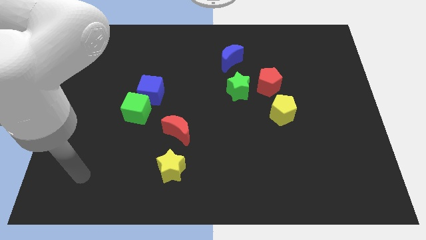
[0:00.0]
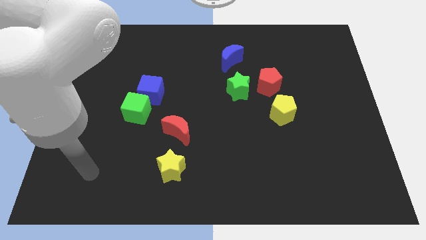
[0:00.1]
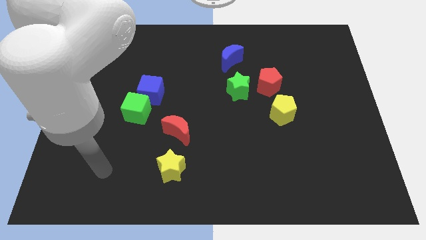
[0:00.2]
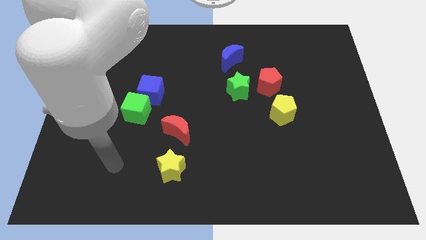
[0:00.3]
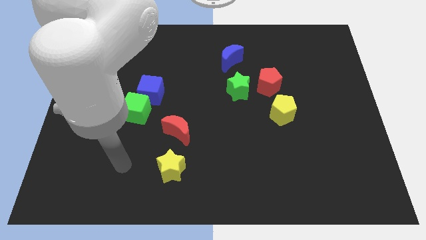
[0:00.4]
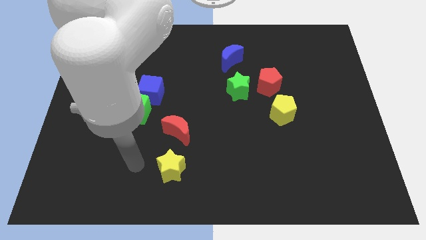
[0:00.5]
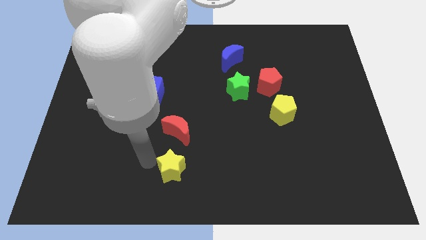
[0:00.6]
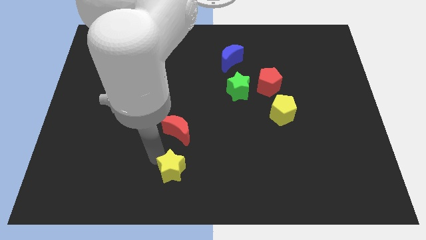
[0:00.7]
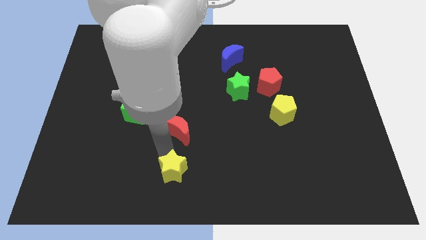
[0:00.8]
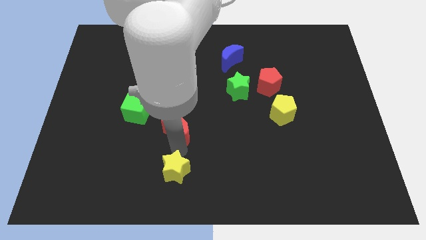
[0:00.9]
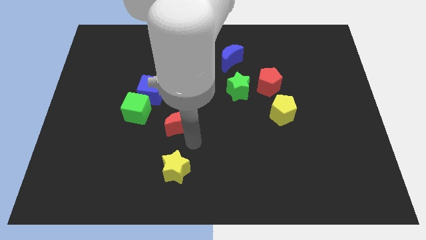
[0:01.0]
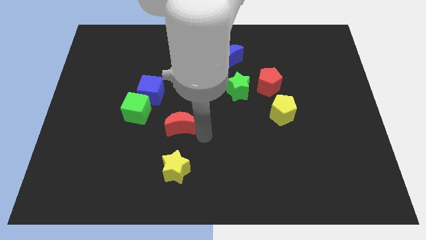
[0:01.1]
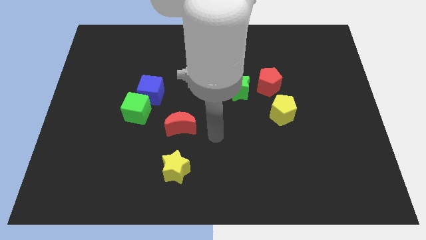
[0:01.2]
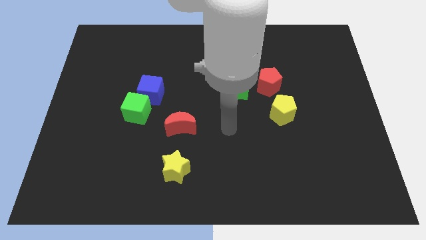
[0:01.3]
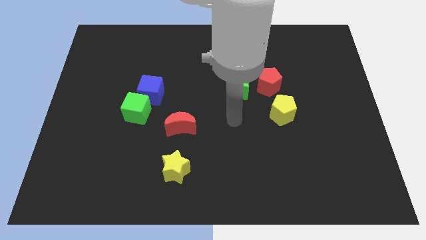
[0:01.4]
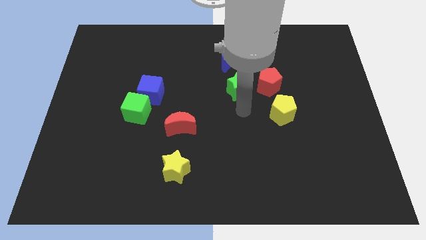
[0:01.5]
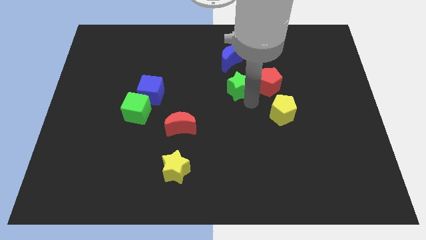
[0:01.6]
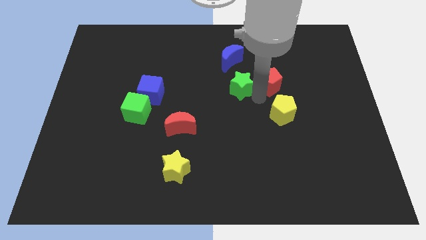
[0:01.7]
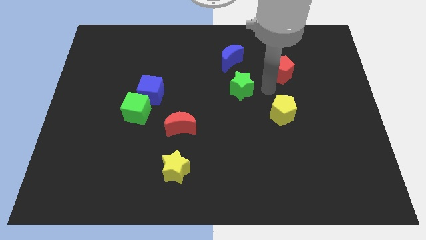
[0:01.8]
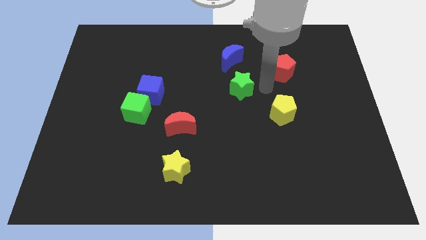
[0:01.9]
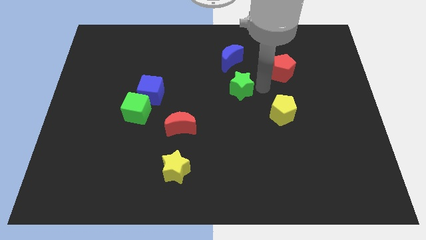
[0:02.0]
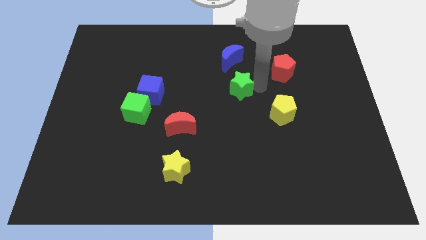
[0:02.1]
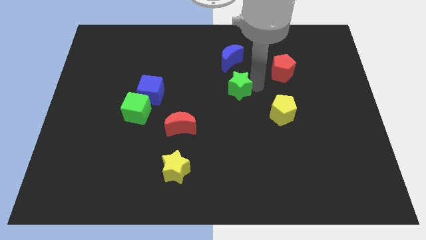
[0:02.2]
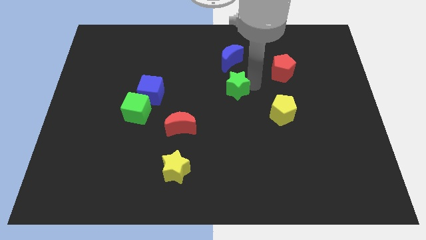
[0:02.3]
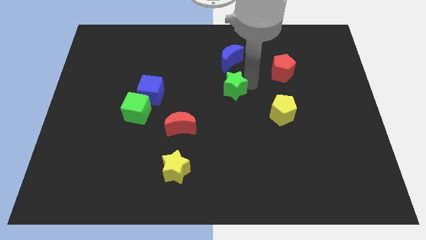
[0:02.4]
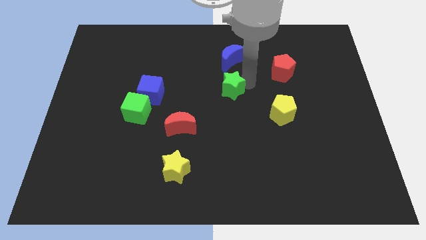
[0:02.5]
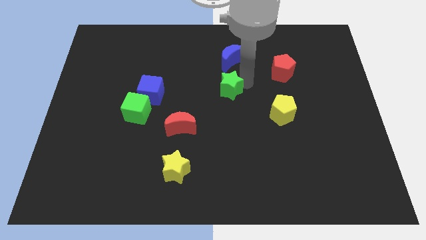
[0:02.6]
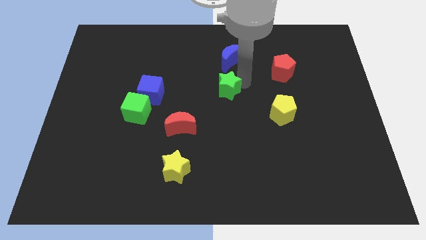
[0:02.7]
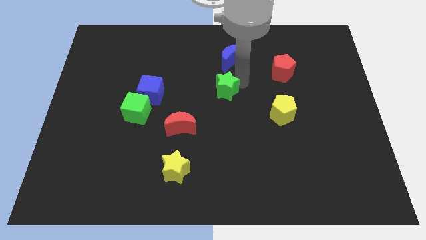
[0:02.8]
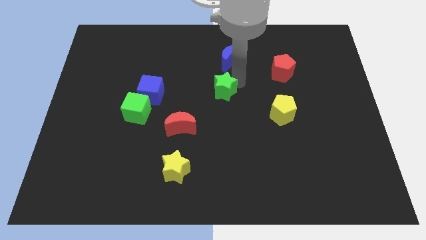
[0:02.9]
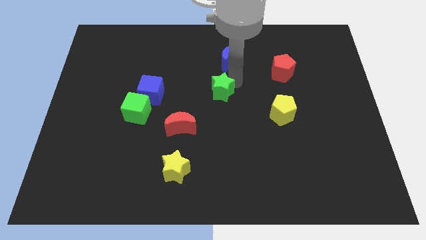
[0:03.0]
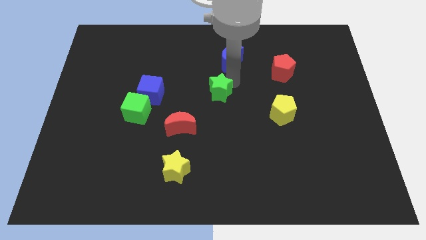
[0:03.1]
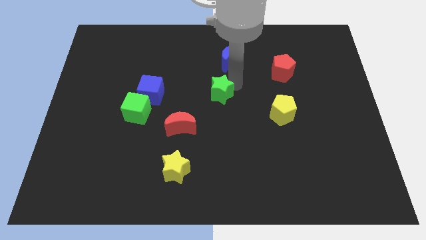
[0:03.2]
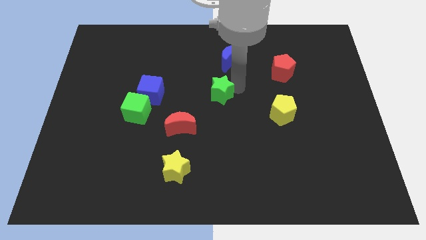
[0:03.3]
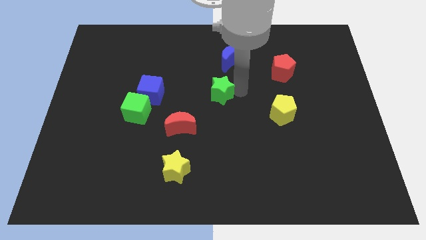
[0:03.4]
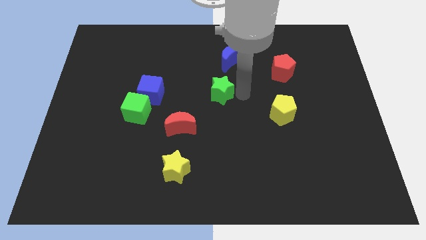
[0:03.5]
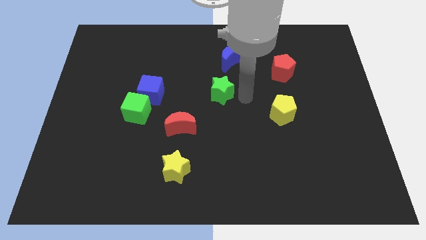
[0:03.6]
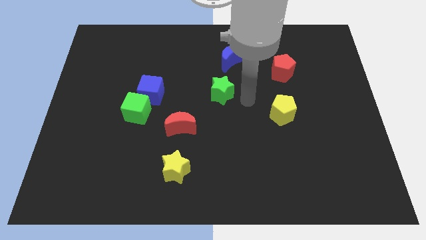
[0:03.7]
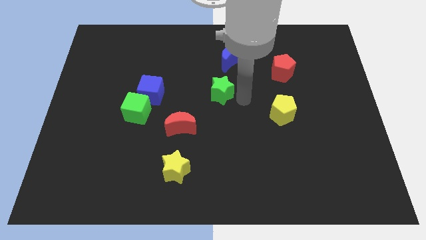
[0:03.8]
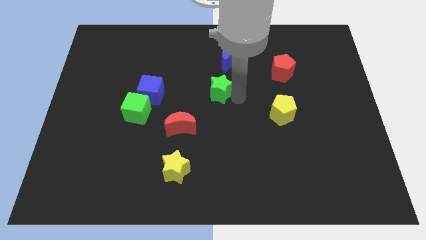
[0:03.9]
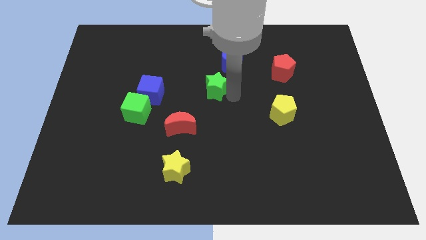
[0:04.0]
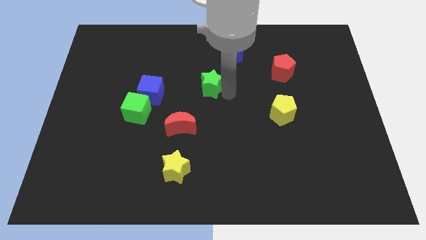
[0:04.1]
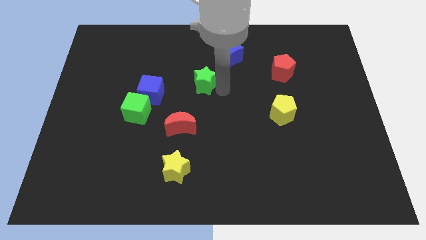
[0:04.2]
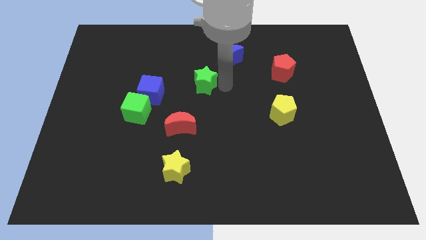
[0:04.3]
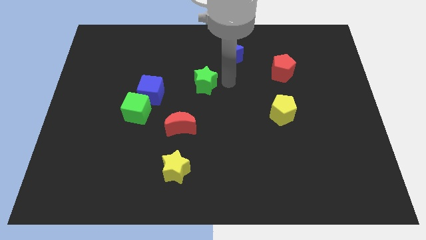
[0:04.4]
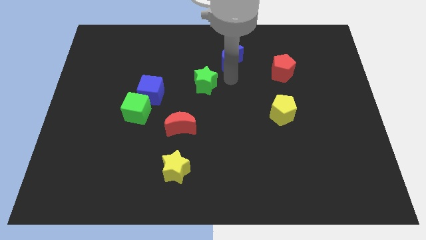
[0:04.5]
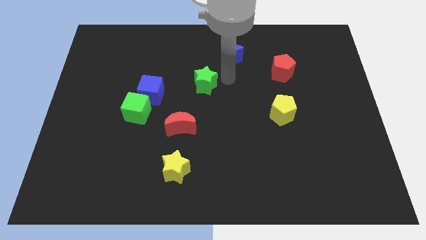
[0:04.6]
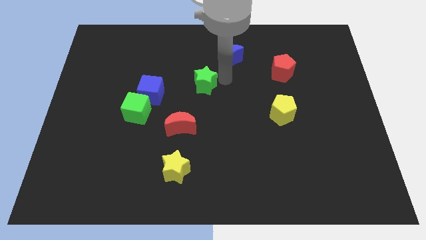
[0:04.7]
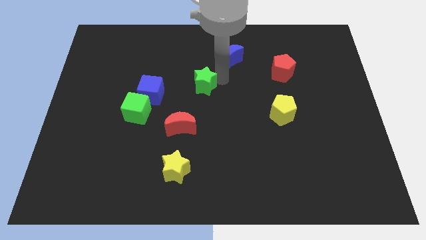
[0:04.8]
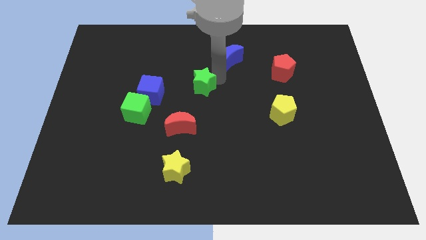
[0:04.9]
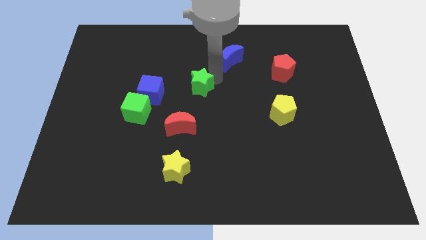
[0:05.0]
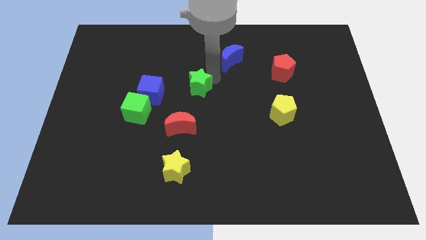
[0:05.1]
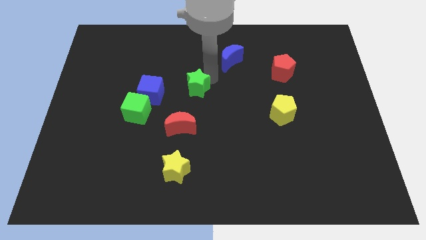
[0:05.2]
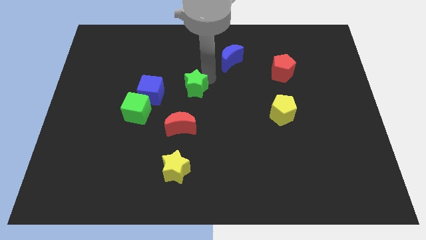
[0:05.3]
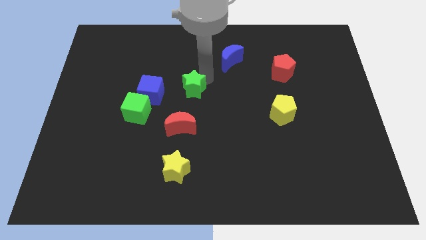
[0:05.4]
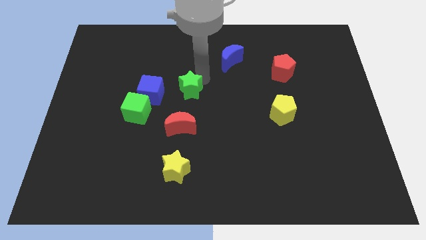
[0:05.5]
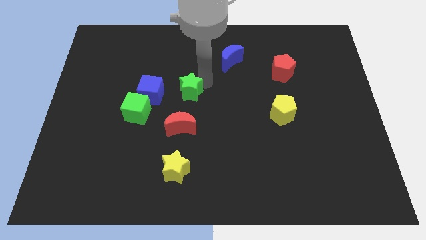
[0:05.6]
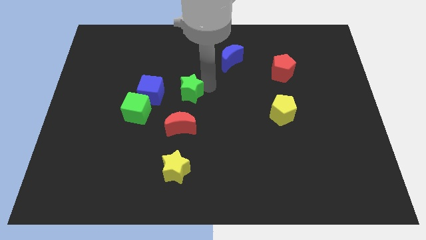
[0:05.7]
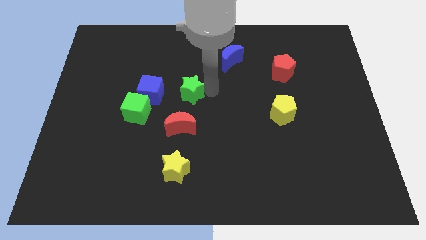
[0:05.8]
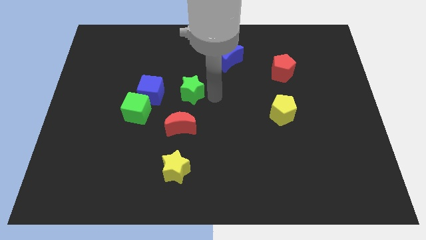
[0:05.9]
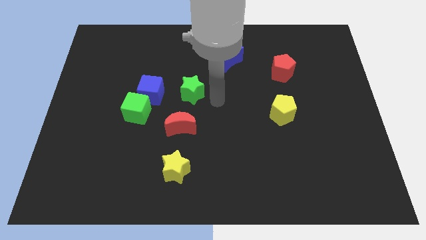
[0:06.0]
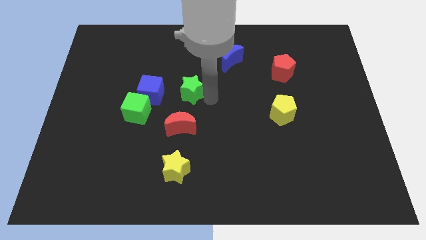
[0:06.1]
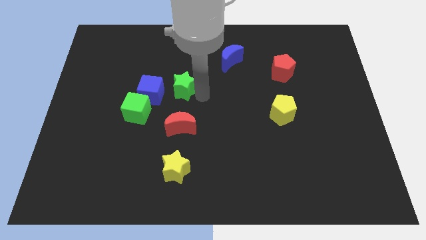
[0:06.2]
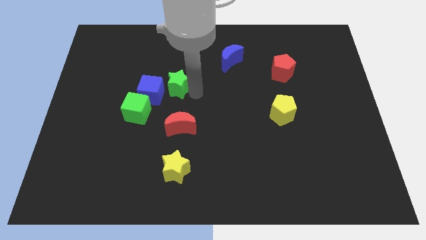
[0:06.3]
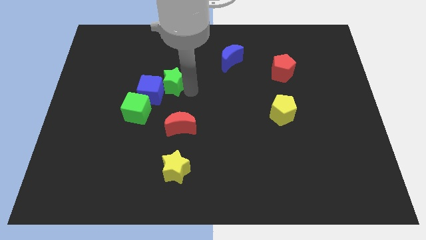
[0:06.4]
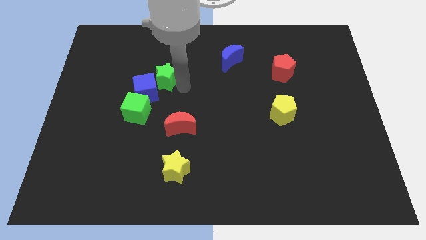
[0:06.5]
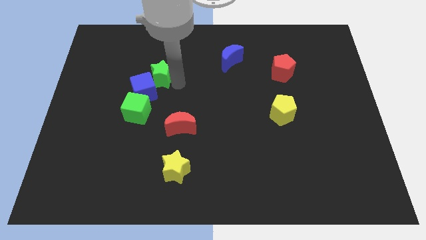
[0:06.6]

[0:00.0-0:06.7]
push the green star to the top of the green cube
